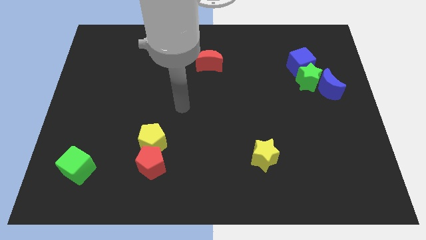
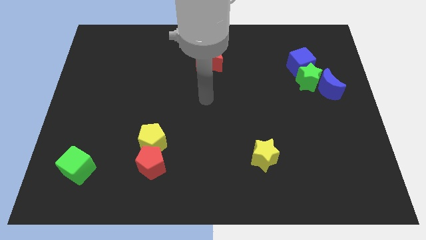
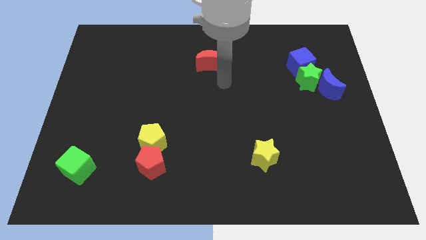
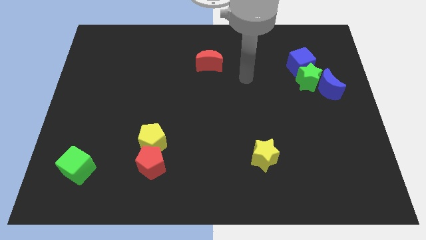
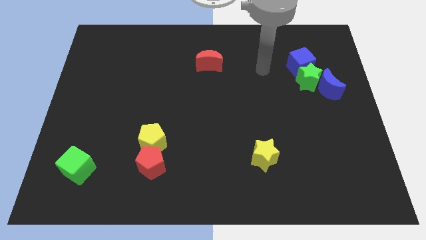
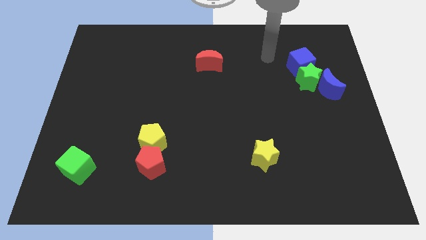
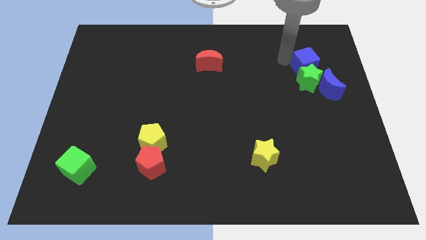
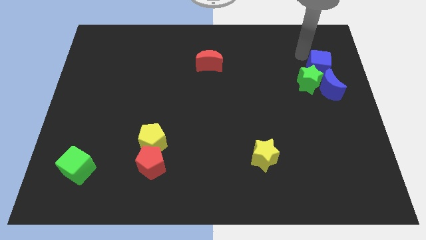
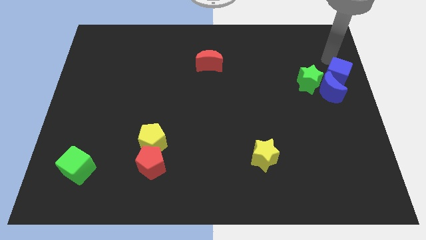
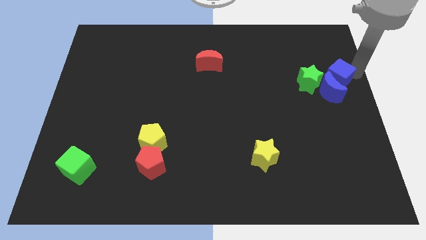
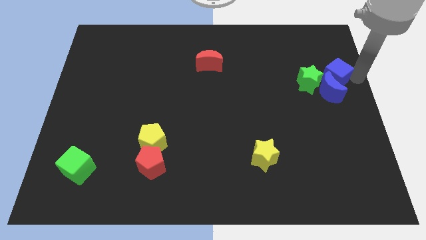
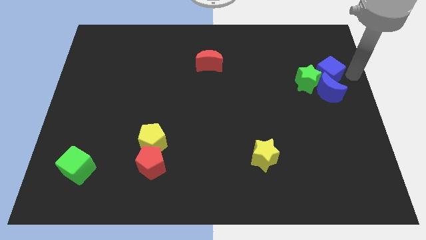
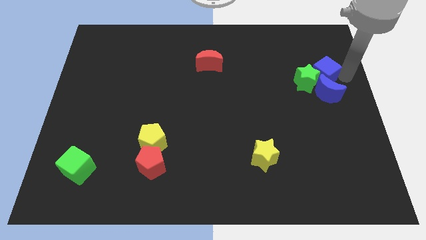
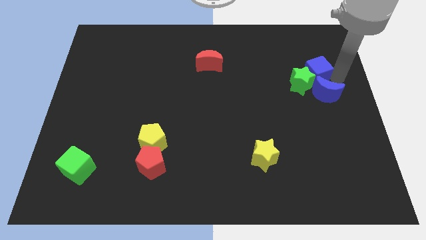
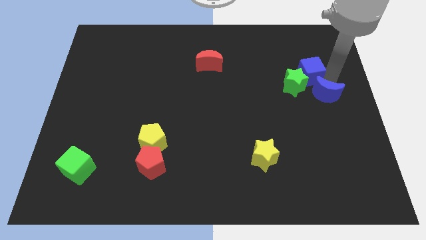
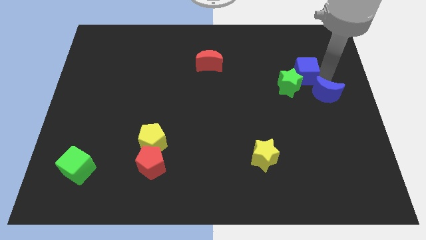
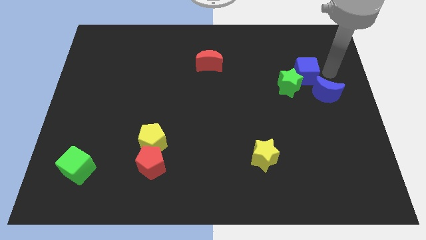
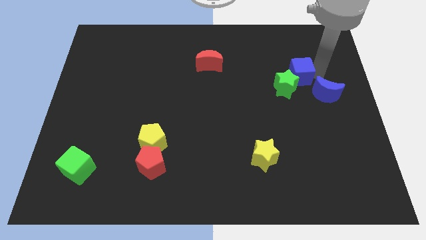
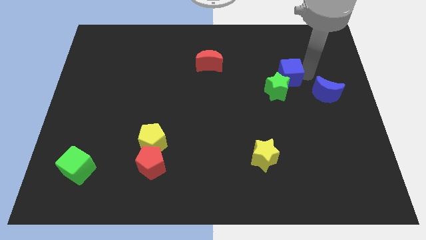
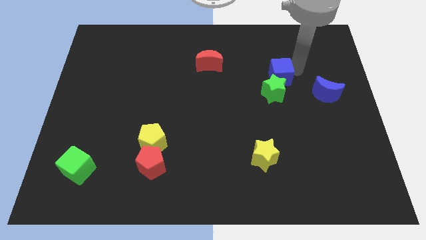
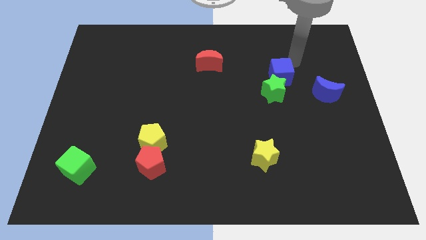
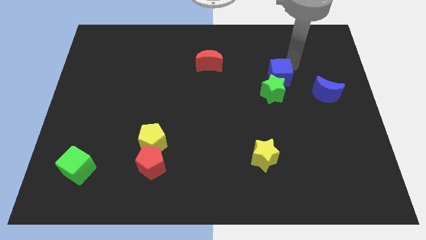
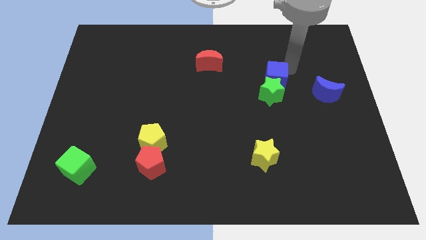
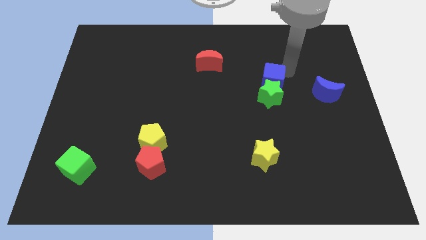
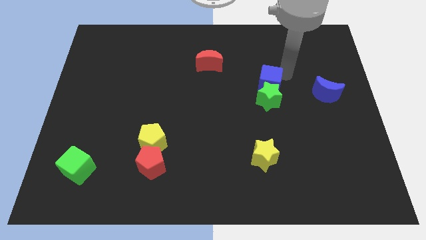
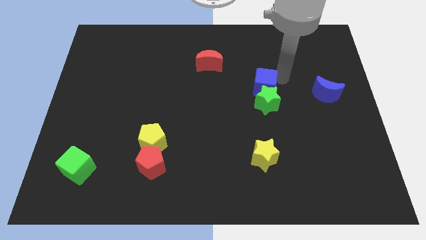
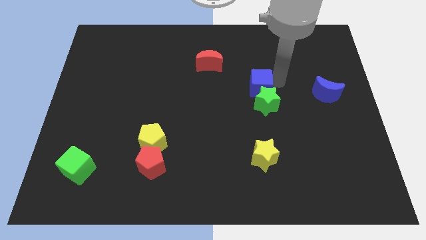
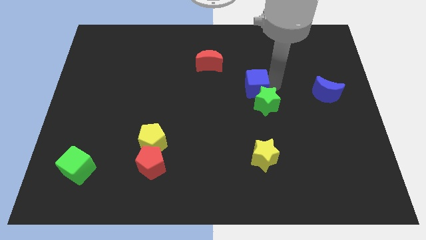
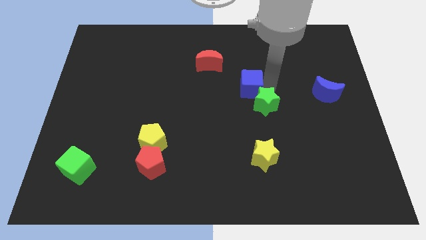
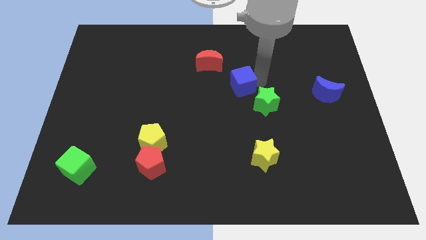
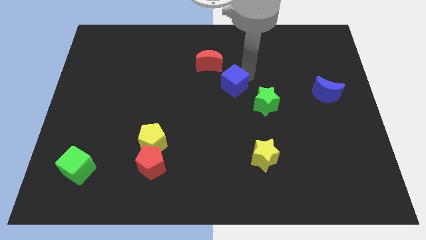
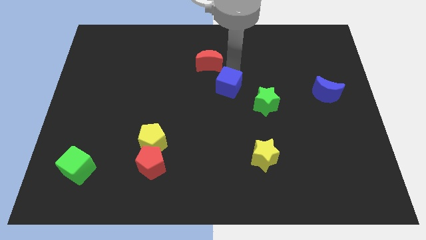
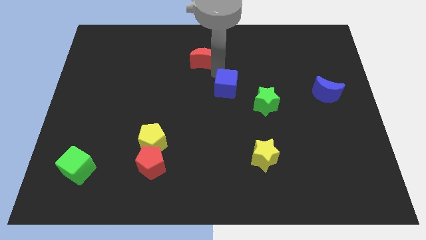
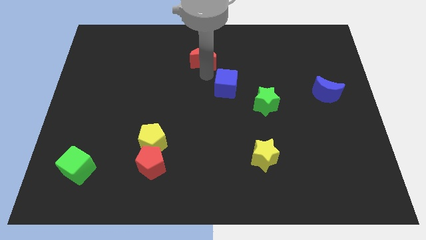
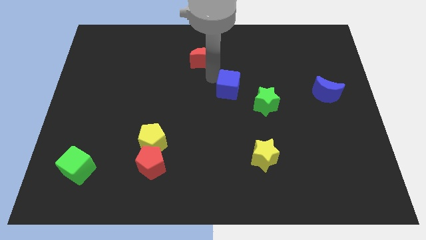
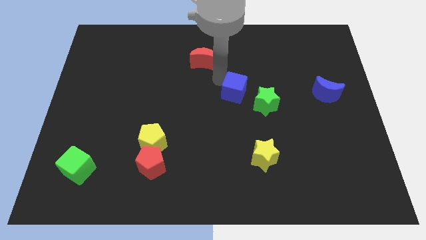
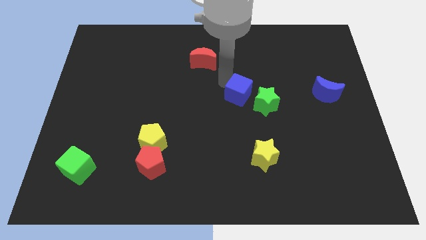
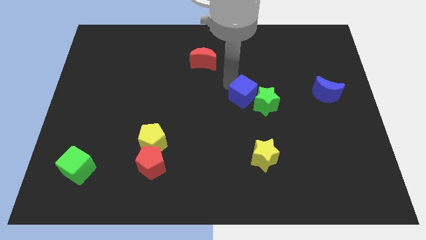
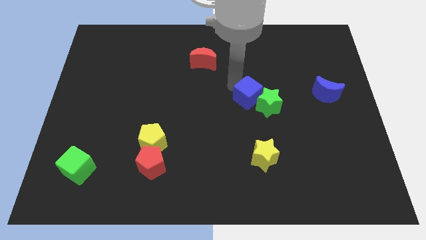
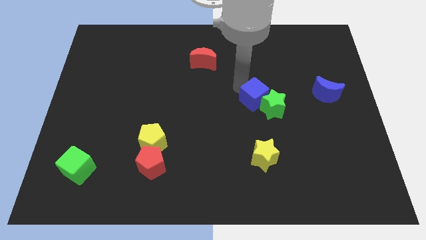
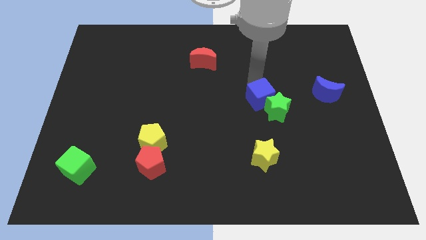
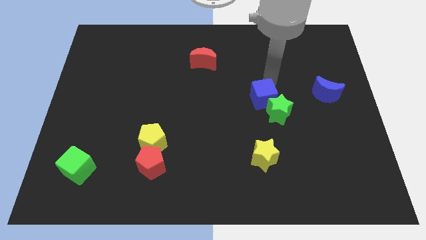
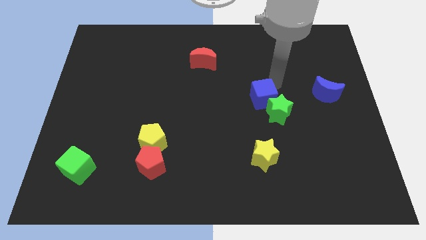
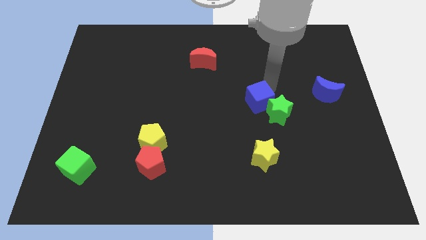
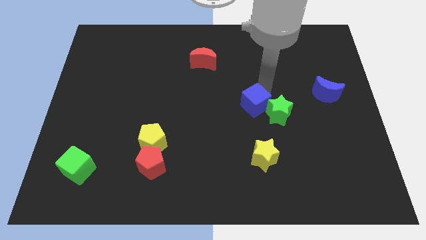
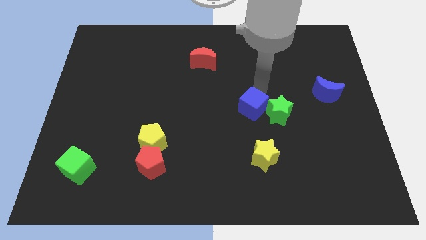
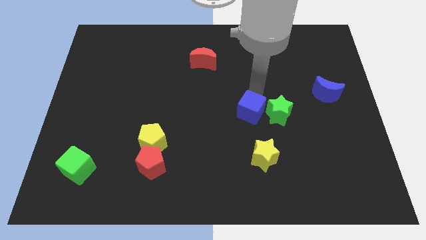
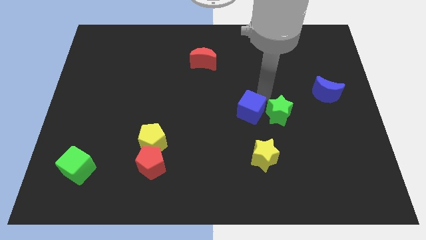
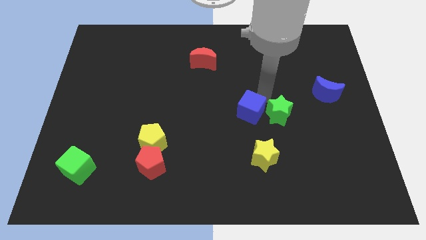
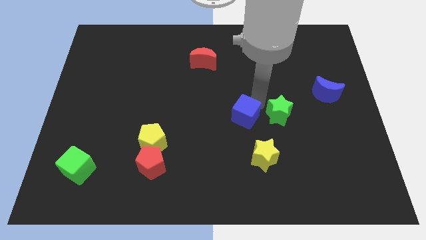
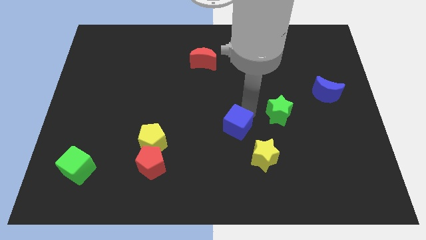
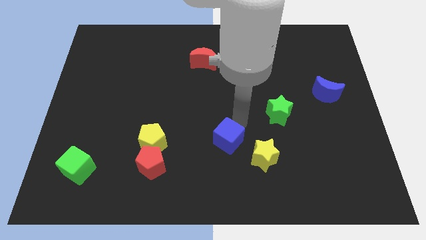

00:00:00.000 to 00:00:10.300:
put the blue cube just left of the yellow star

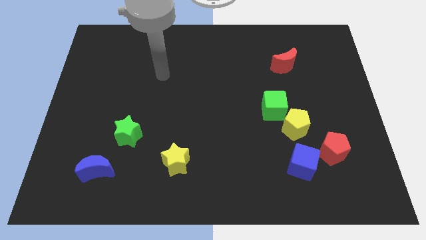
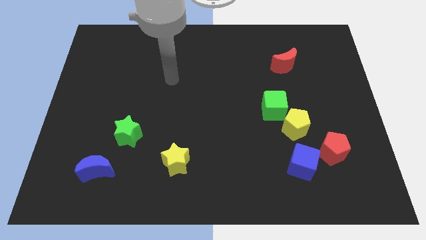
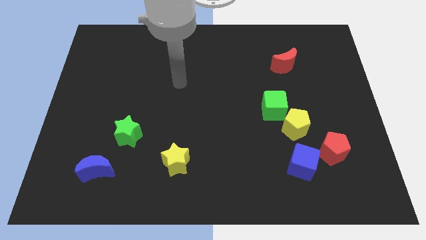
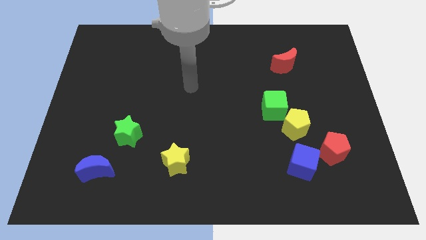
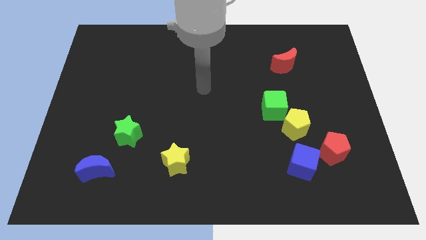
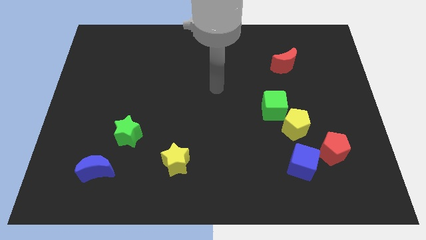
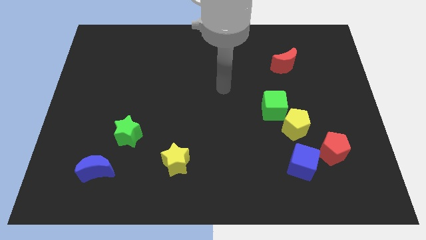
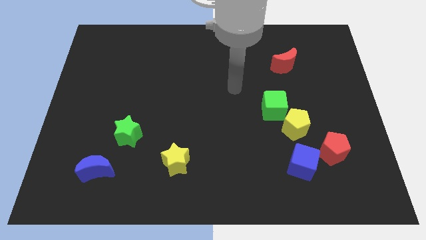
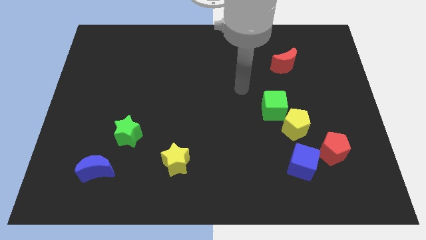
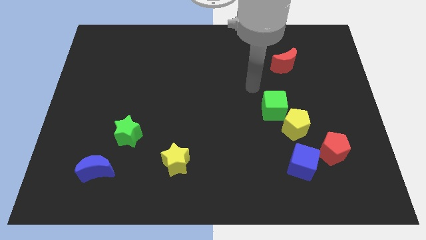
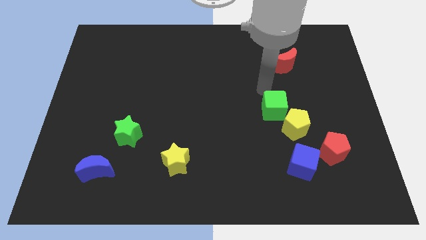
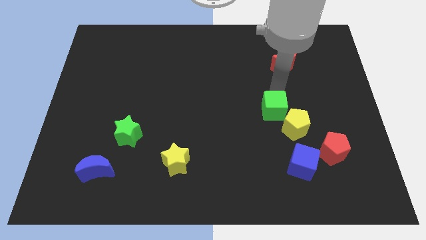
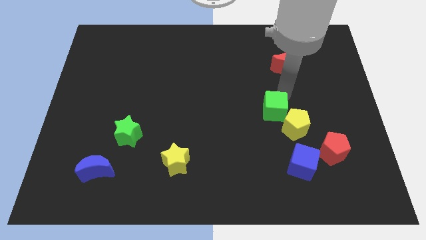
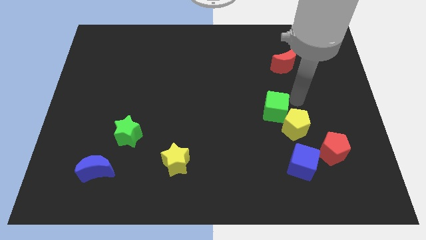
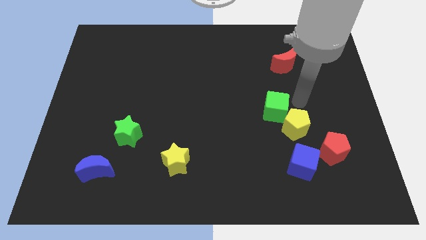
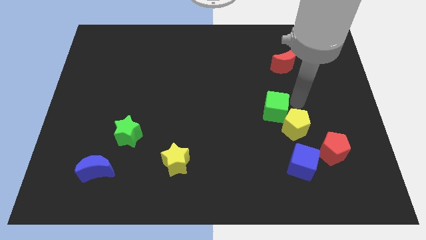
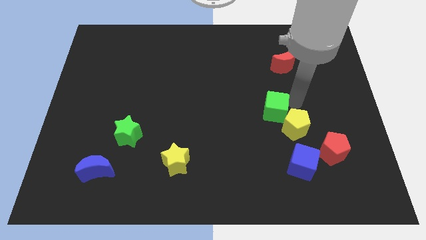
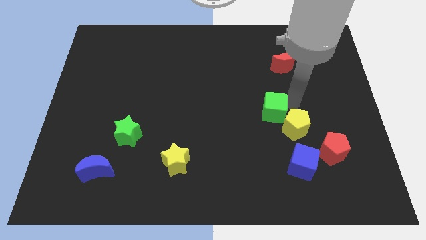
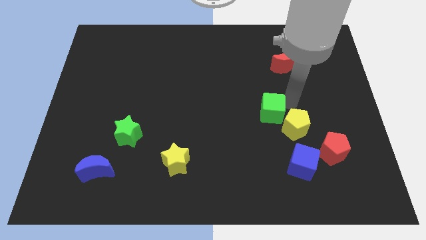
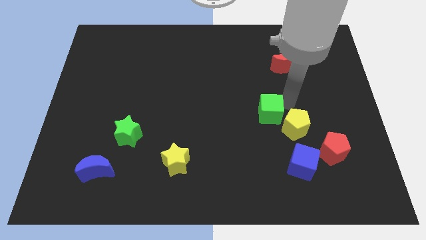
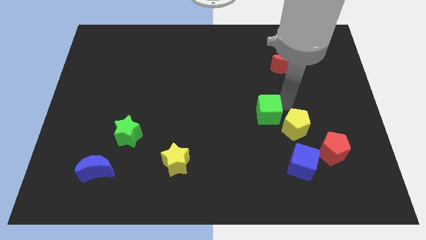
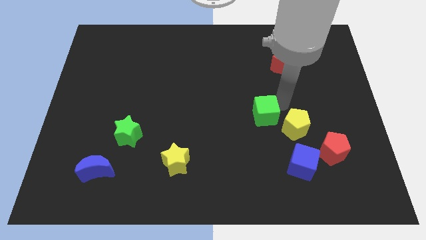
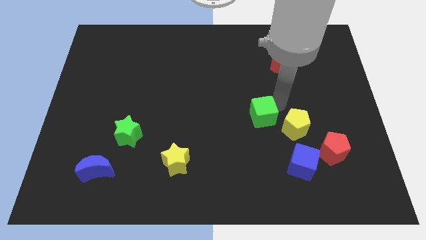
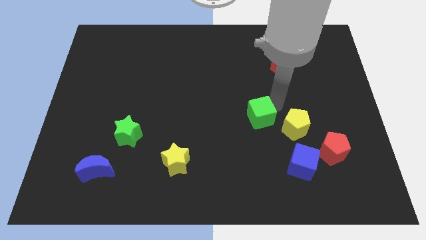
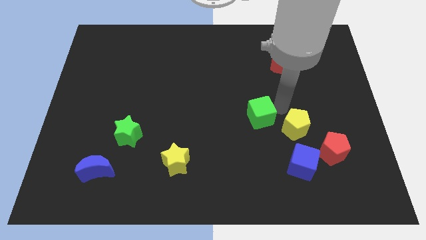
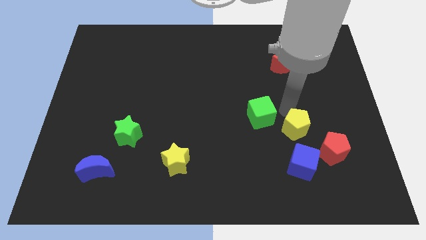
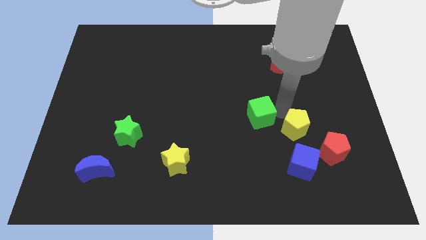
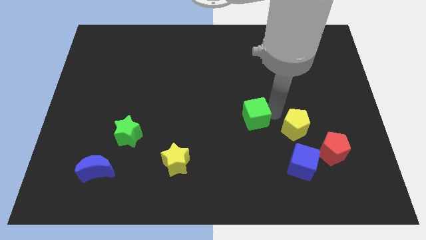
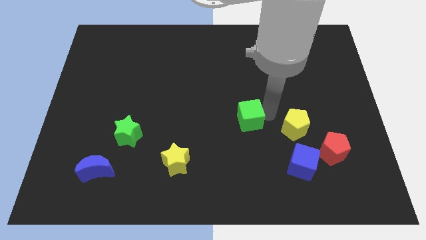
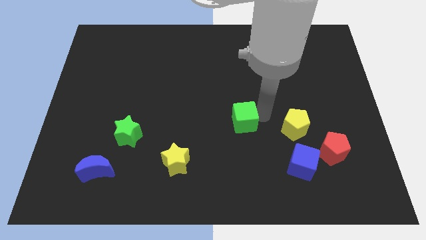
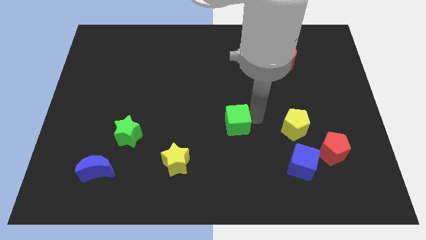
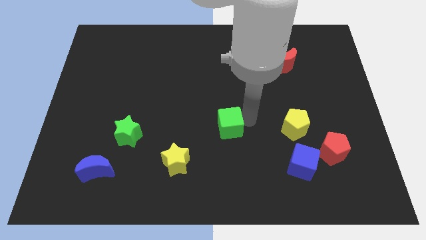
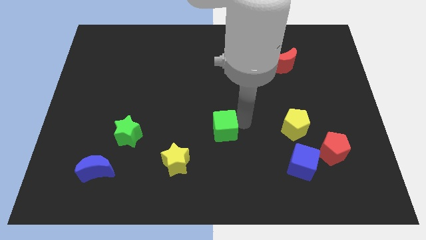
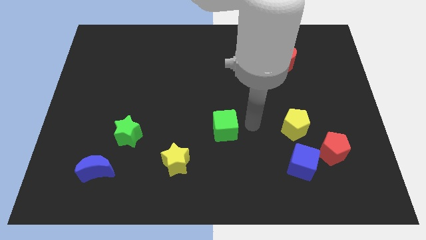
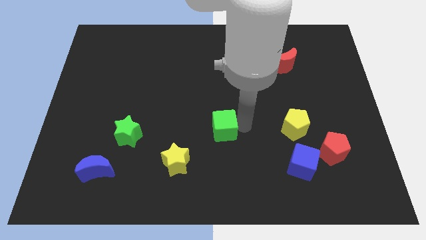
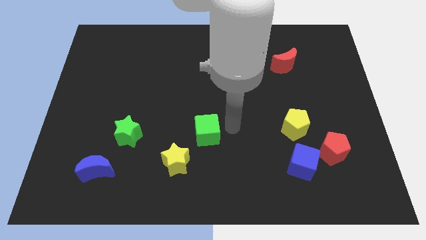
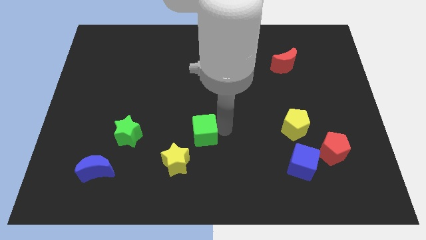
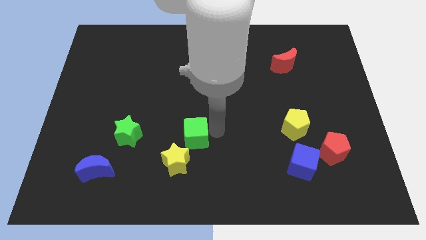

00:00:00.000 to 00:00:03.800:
push the green cube just right of the green star
